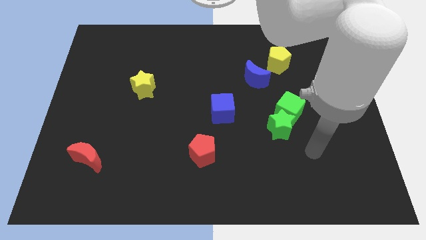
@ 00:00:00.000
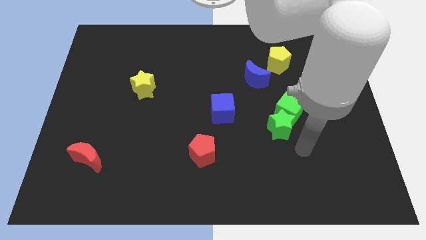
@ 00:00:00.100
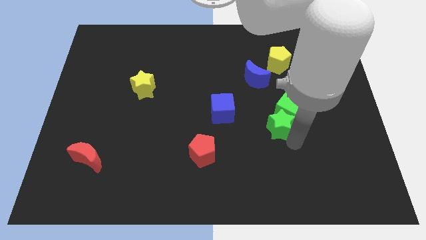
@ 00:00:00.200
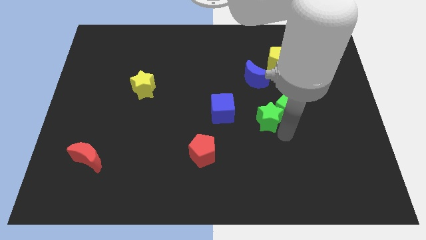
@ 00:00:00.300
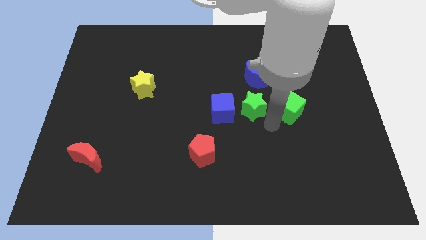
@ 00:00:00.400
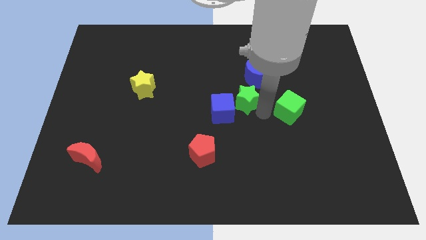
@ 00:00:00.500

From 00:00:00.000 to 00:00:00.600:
separate the green cube from the green star

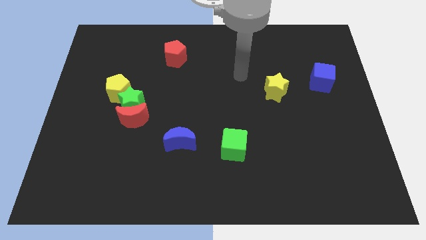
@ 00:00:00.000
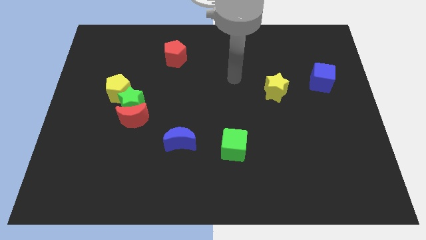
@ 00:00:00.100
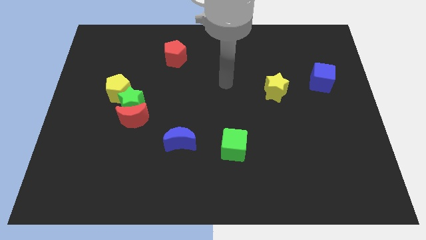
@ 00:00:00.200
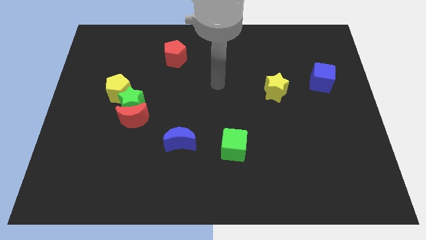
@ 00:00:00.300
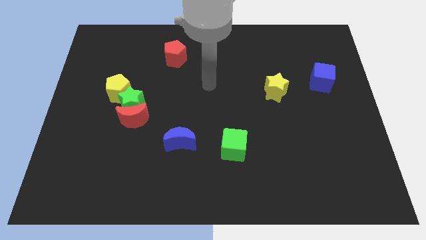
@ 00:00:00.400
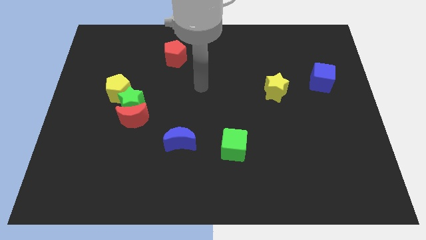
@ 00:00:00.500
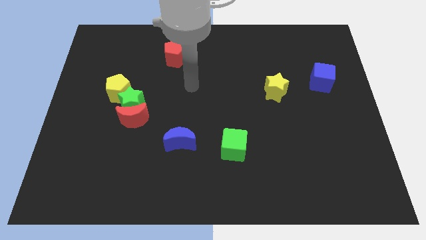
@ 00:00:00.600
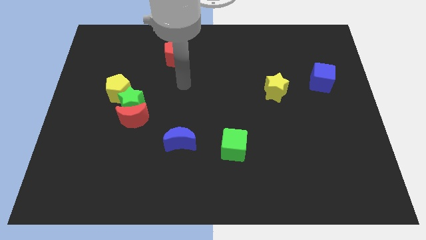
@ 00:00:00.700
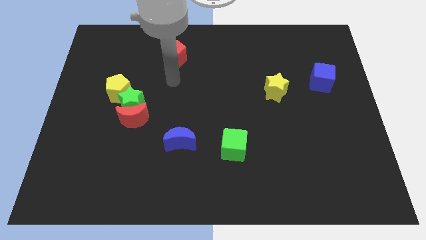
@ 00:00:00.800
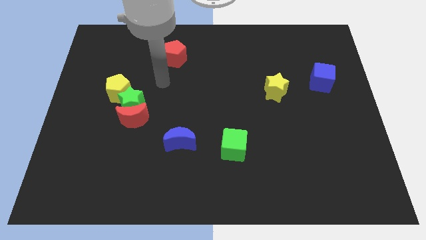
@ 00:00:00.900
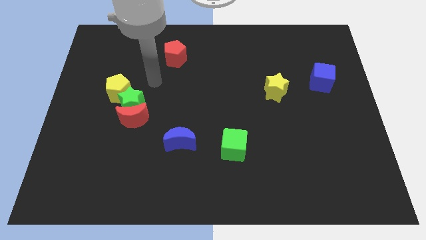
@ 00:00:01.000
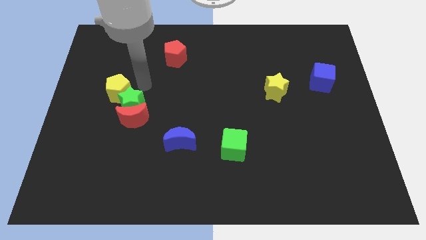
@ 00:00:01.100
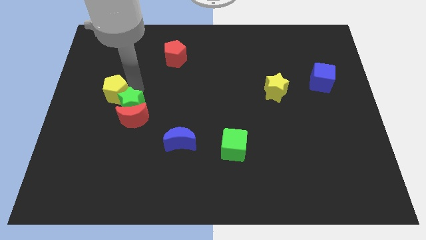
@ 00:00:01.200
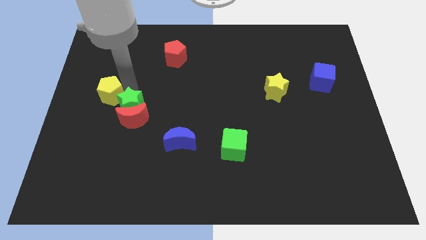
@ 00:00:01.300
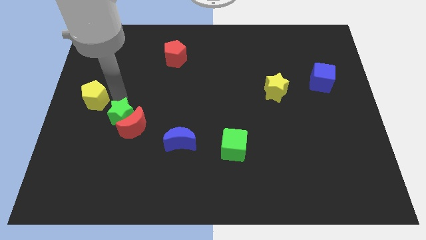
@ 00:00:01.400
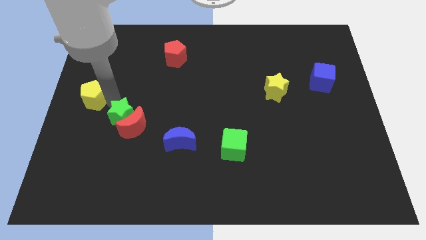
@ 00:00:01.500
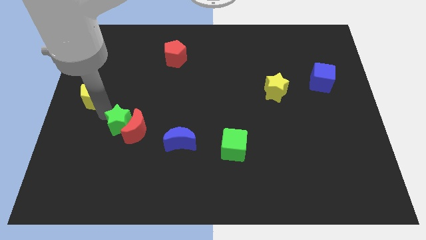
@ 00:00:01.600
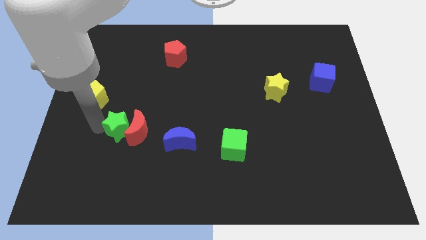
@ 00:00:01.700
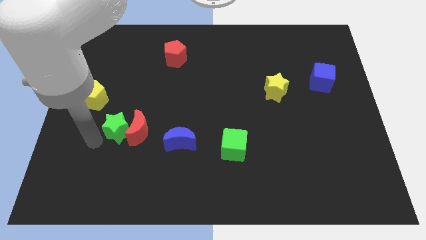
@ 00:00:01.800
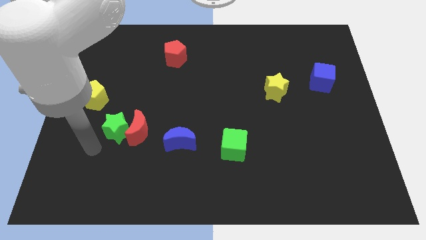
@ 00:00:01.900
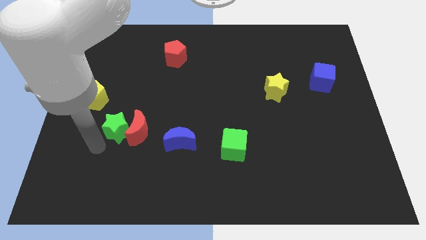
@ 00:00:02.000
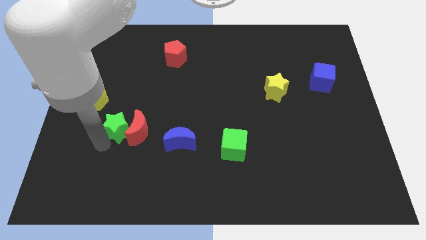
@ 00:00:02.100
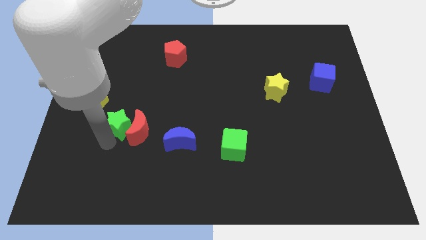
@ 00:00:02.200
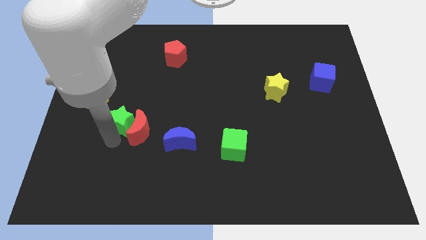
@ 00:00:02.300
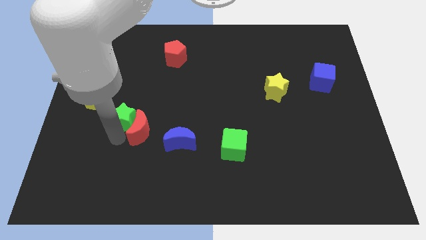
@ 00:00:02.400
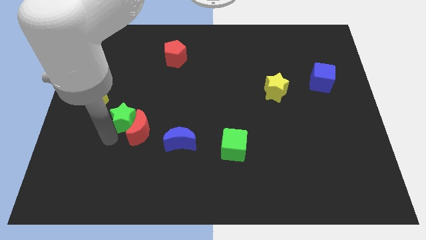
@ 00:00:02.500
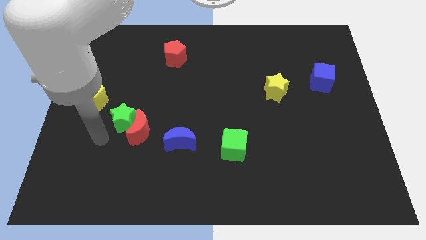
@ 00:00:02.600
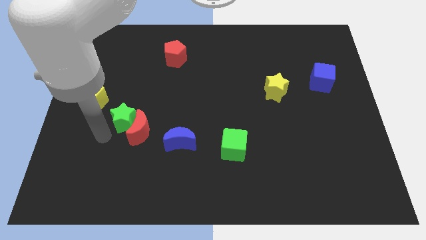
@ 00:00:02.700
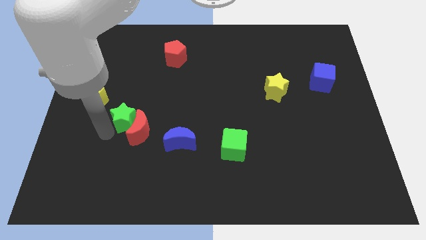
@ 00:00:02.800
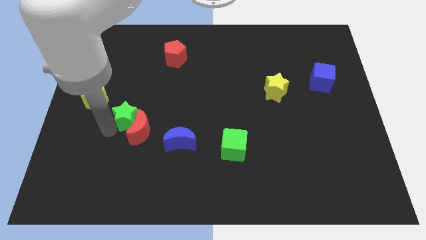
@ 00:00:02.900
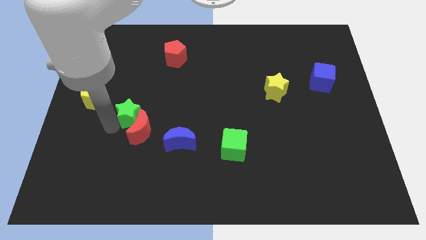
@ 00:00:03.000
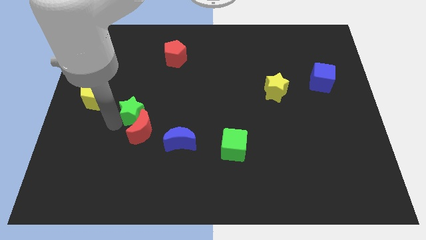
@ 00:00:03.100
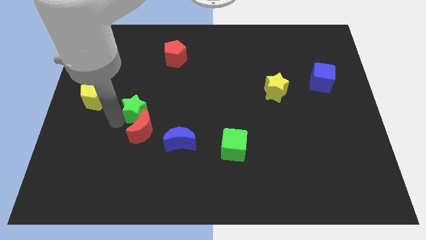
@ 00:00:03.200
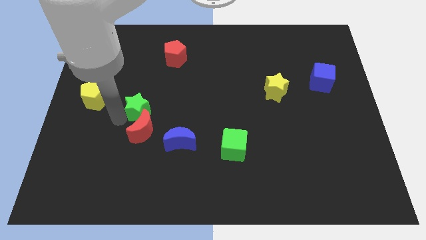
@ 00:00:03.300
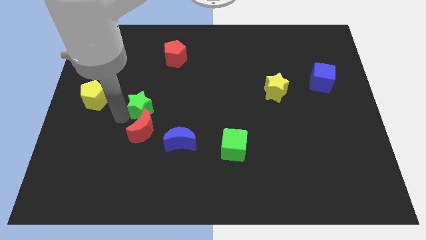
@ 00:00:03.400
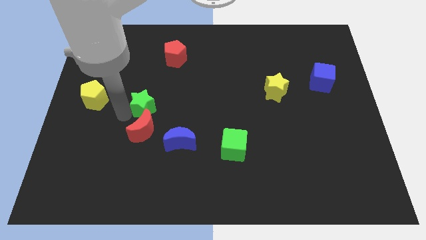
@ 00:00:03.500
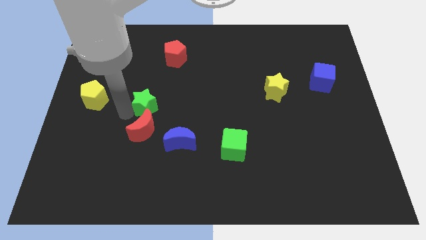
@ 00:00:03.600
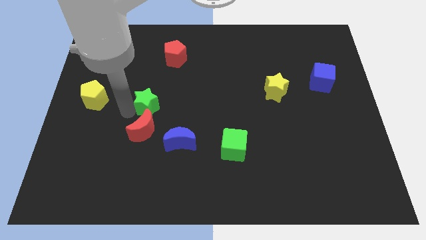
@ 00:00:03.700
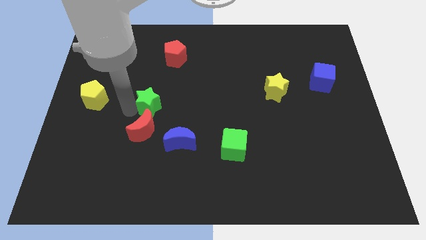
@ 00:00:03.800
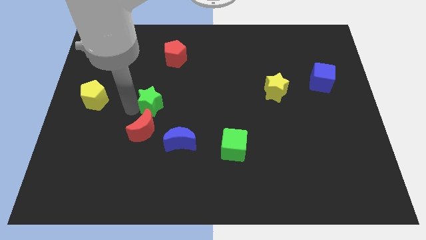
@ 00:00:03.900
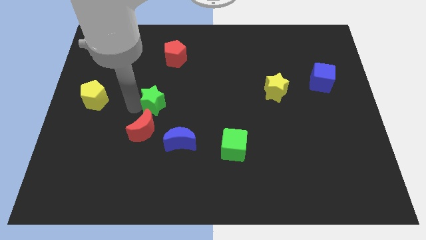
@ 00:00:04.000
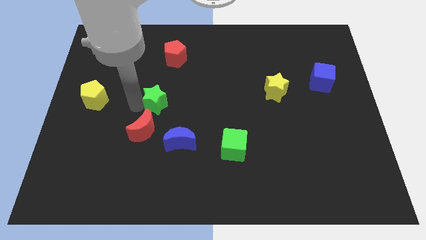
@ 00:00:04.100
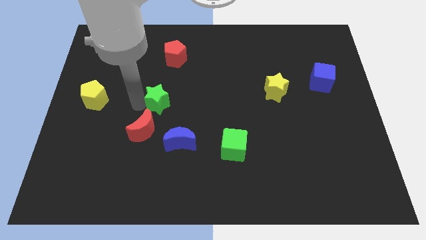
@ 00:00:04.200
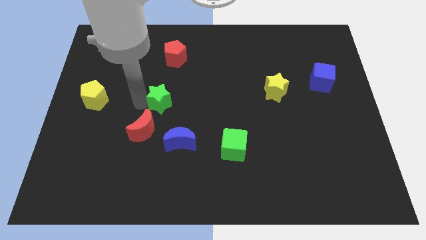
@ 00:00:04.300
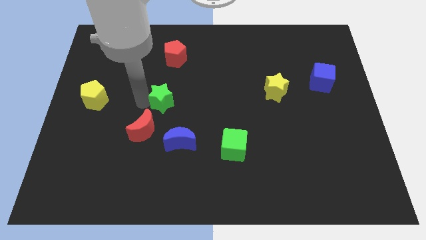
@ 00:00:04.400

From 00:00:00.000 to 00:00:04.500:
pull the green star apart from the red moon and yellow pentagon

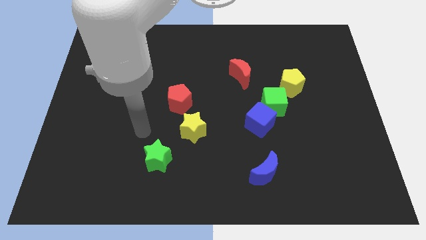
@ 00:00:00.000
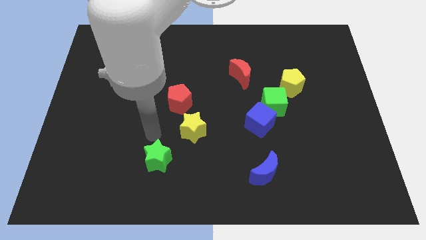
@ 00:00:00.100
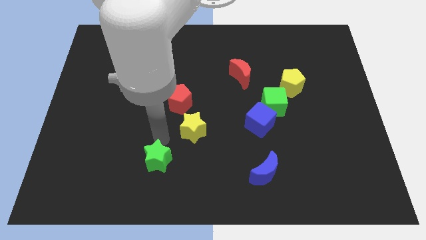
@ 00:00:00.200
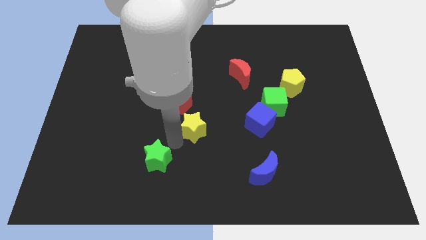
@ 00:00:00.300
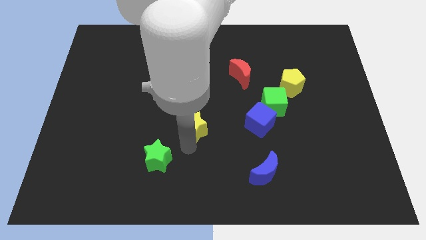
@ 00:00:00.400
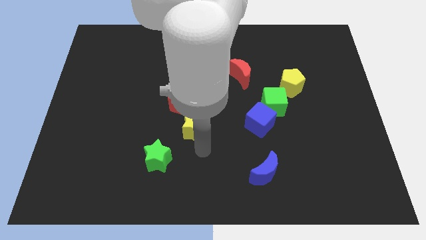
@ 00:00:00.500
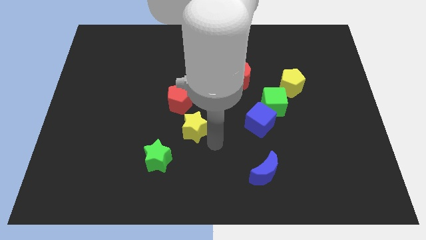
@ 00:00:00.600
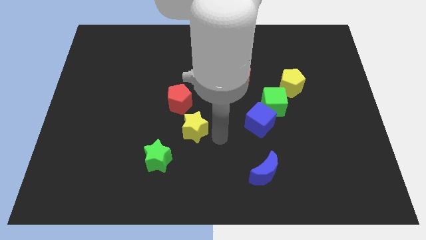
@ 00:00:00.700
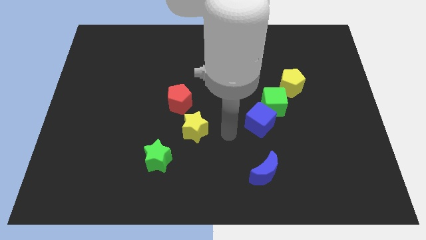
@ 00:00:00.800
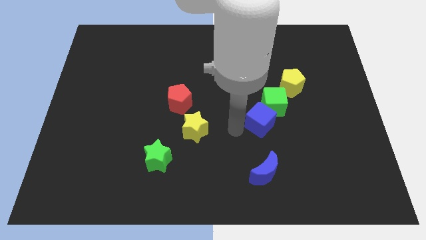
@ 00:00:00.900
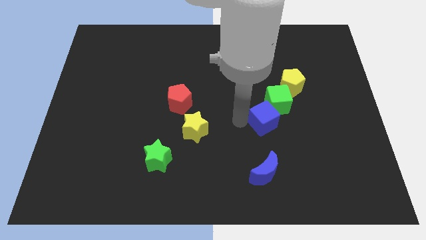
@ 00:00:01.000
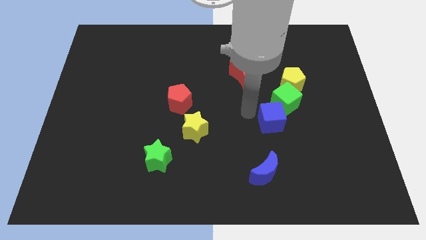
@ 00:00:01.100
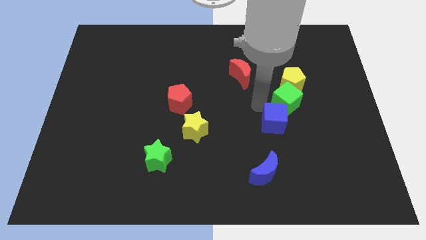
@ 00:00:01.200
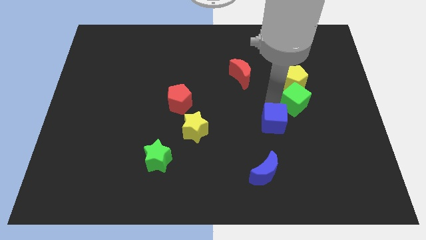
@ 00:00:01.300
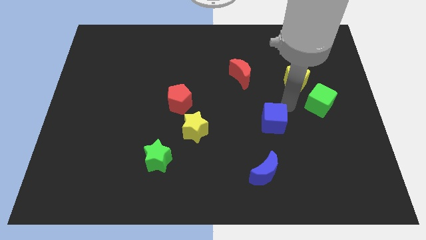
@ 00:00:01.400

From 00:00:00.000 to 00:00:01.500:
pull the blue cube apart from the green cube

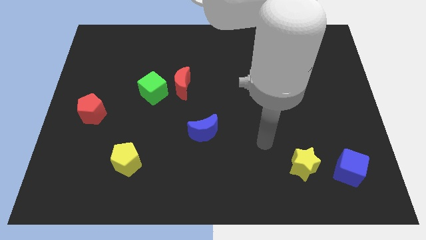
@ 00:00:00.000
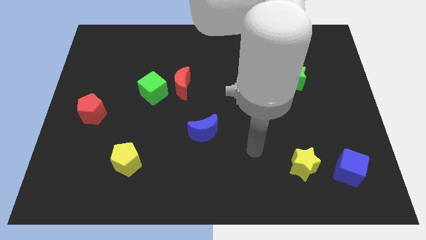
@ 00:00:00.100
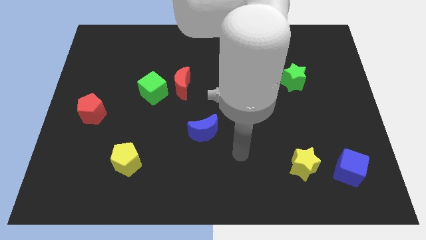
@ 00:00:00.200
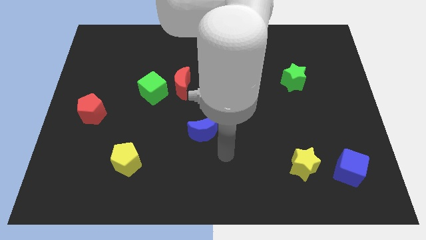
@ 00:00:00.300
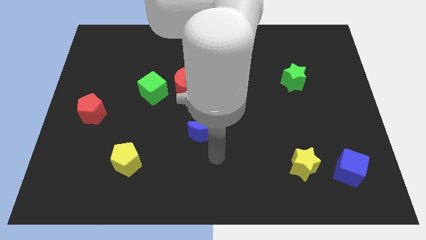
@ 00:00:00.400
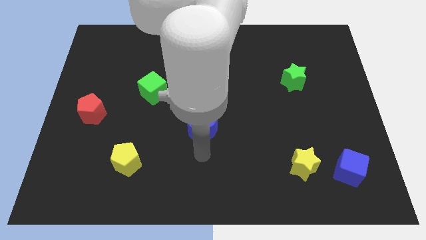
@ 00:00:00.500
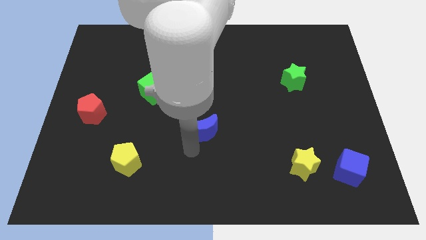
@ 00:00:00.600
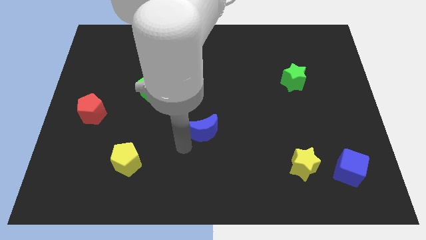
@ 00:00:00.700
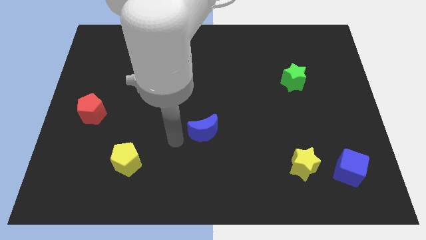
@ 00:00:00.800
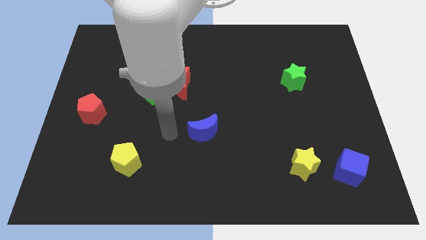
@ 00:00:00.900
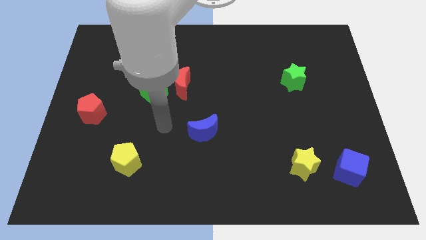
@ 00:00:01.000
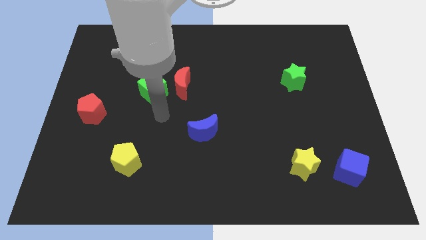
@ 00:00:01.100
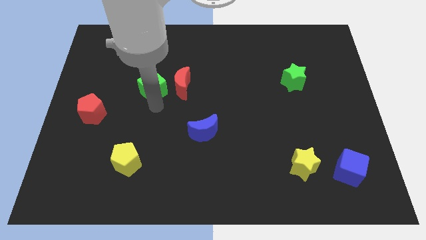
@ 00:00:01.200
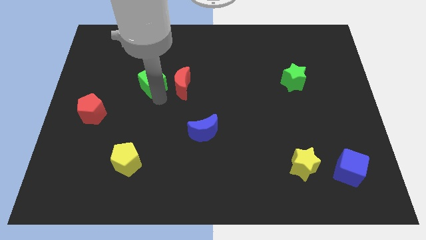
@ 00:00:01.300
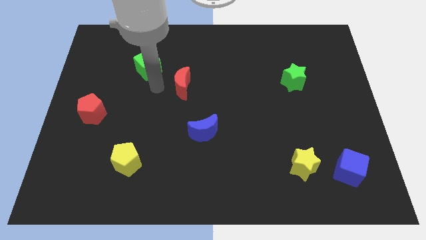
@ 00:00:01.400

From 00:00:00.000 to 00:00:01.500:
separate the red moon from the green cube

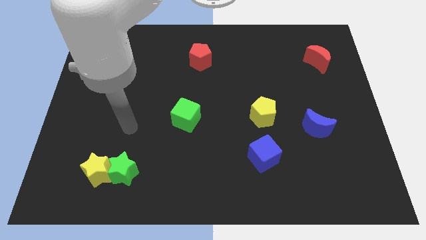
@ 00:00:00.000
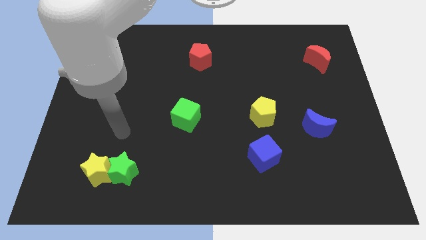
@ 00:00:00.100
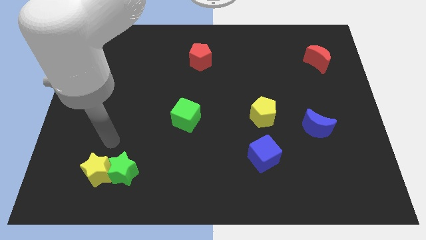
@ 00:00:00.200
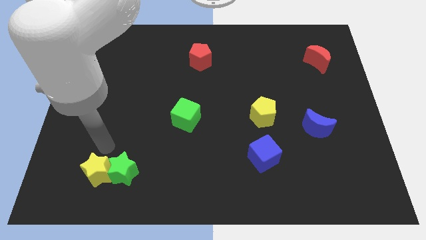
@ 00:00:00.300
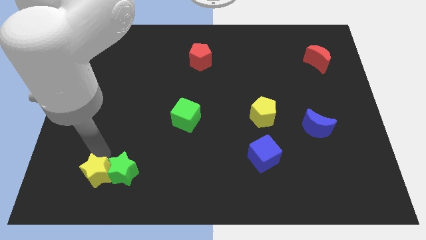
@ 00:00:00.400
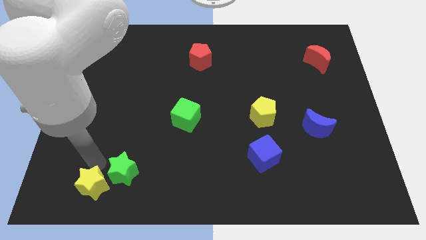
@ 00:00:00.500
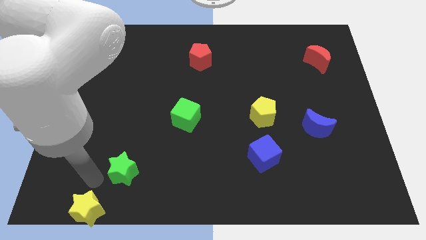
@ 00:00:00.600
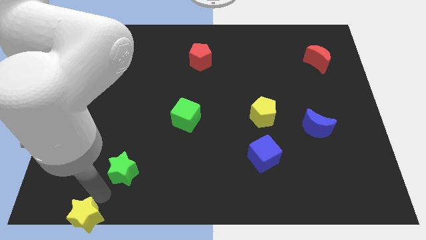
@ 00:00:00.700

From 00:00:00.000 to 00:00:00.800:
move the green star away from the yellow star

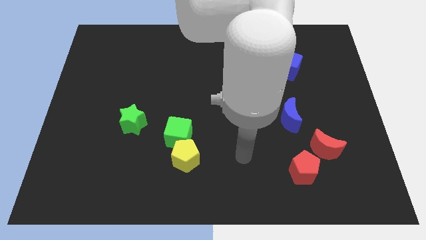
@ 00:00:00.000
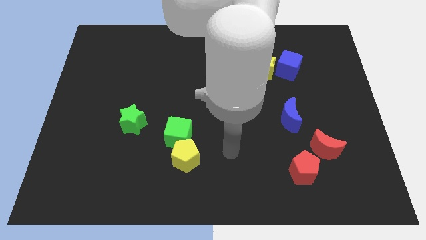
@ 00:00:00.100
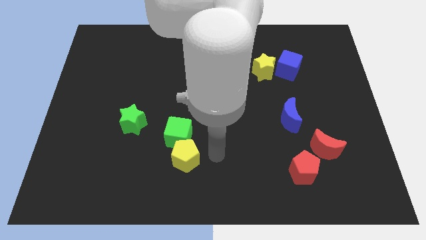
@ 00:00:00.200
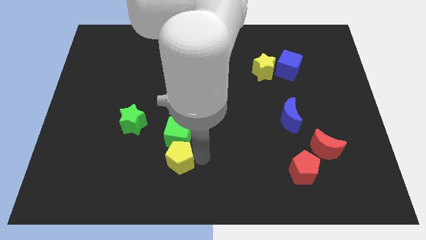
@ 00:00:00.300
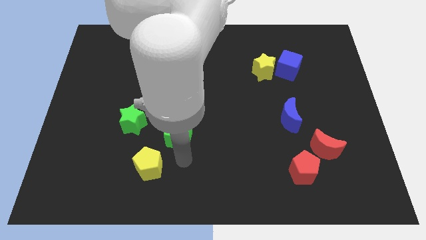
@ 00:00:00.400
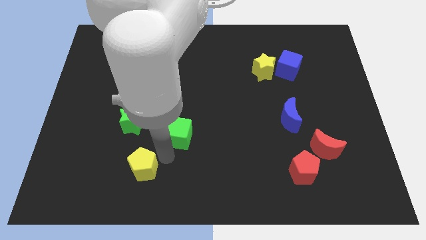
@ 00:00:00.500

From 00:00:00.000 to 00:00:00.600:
separate the green cube from the yellow pentagon
